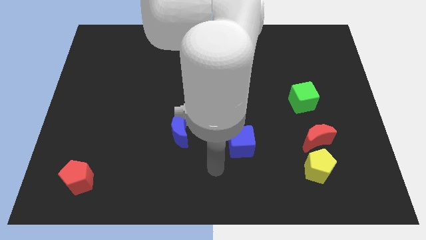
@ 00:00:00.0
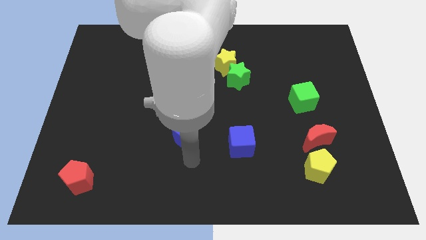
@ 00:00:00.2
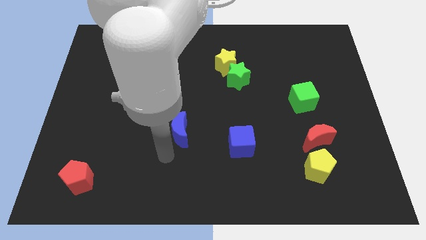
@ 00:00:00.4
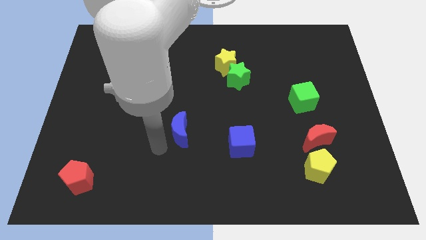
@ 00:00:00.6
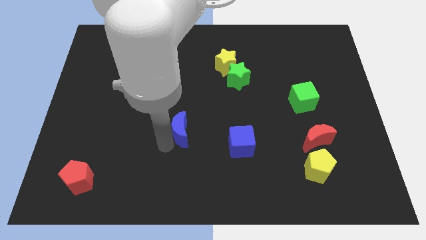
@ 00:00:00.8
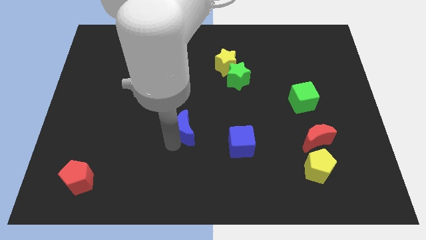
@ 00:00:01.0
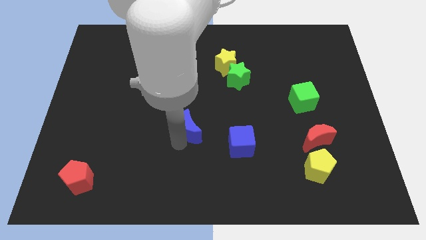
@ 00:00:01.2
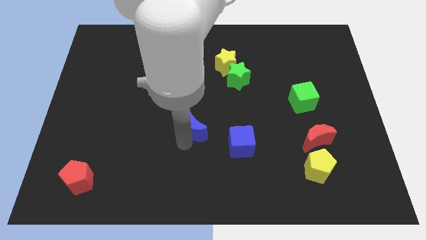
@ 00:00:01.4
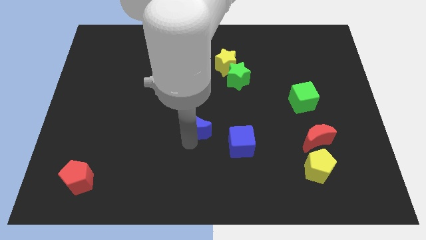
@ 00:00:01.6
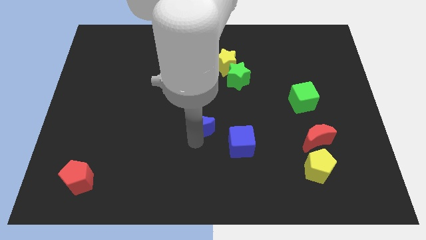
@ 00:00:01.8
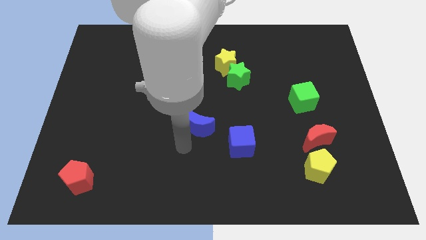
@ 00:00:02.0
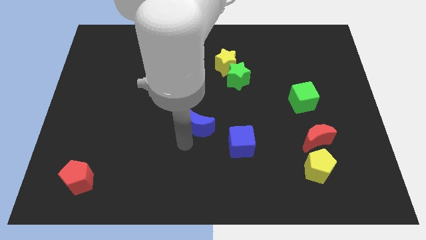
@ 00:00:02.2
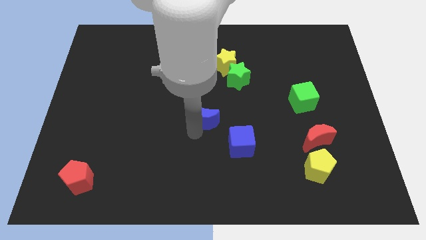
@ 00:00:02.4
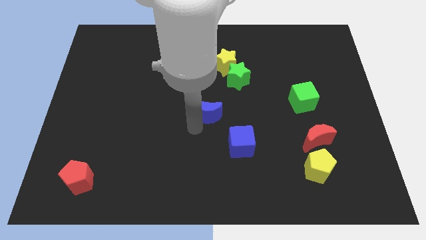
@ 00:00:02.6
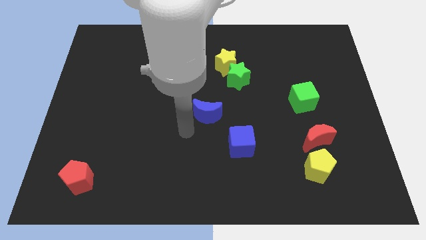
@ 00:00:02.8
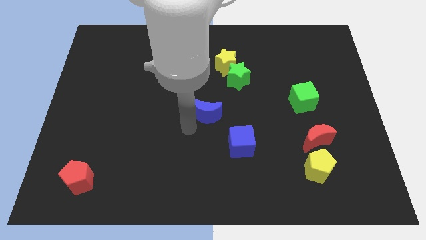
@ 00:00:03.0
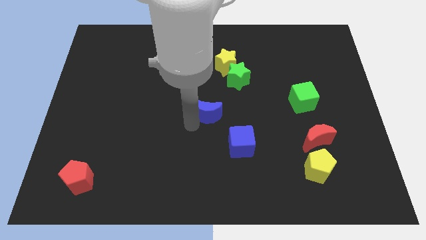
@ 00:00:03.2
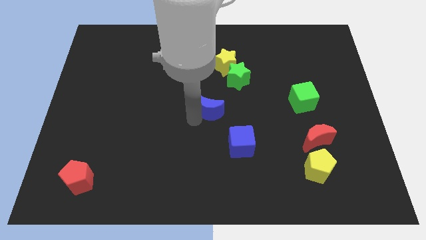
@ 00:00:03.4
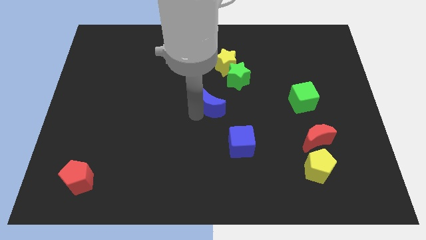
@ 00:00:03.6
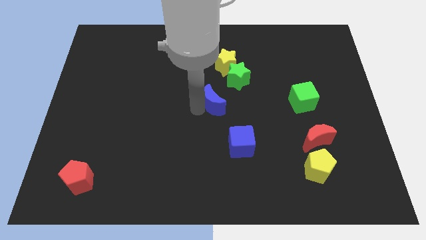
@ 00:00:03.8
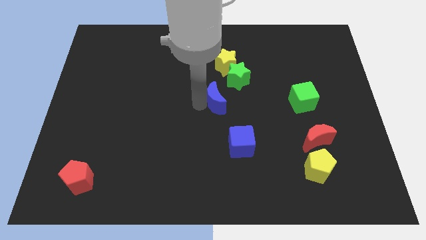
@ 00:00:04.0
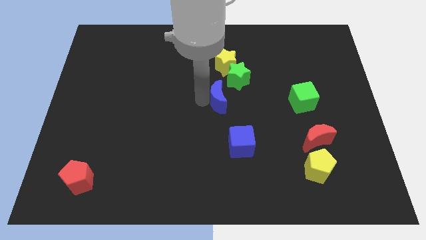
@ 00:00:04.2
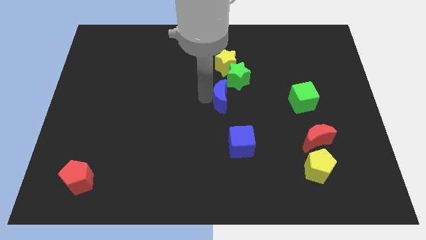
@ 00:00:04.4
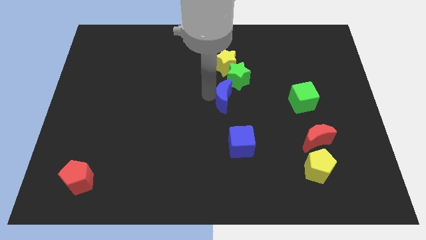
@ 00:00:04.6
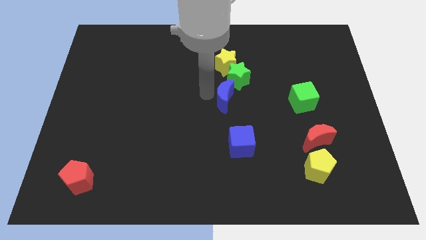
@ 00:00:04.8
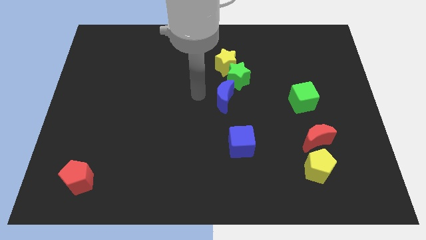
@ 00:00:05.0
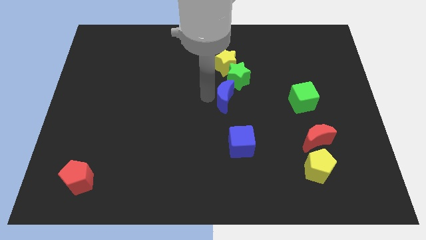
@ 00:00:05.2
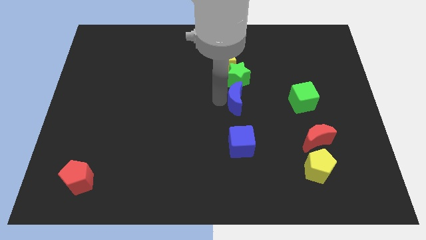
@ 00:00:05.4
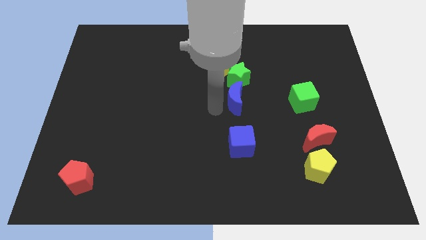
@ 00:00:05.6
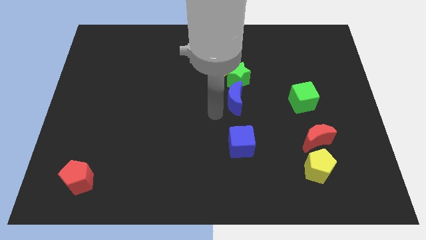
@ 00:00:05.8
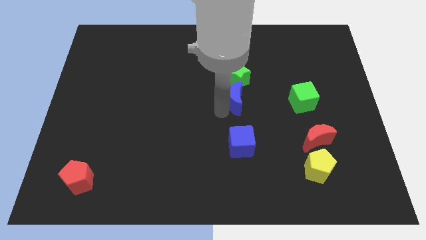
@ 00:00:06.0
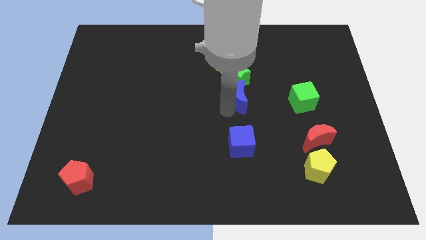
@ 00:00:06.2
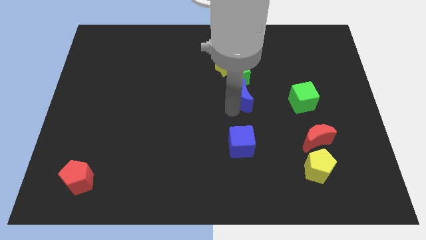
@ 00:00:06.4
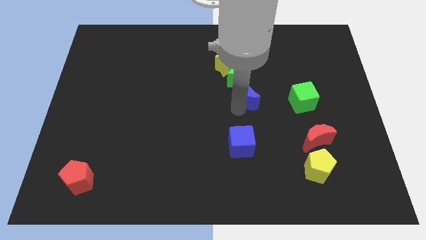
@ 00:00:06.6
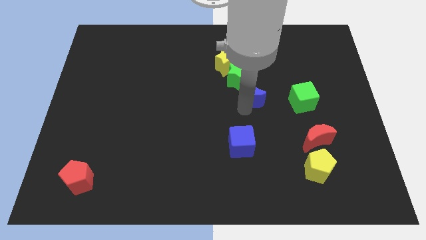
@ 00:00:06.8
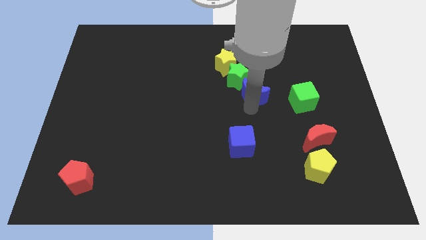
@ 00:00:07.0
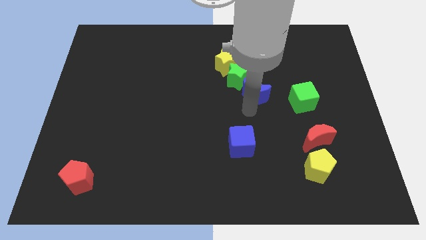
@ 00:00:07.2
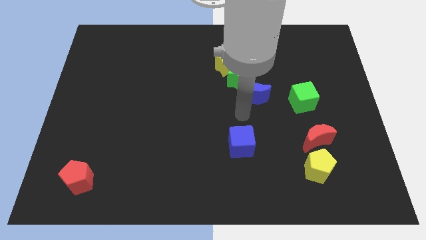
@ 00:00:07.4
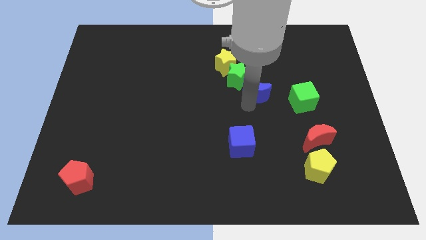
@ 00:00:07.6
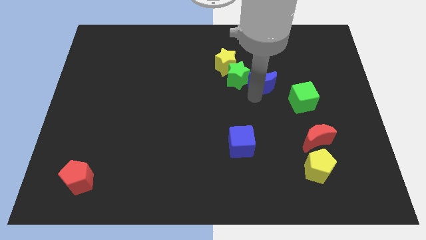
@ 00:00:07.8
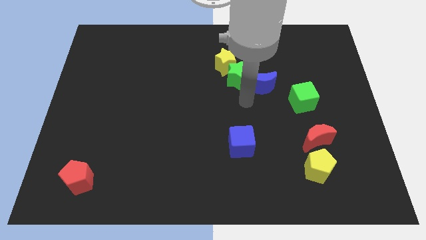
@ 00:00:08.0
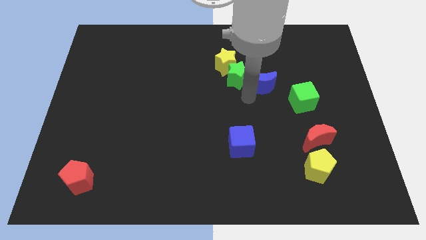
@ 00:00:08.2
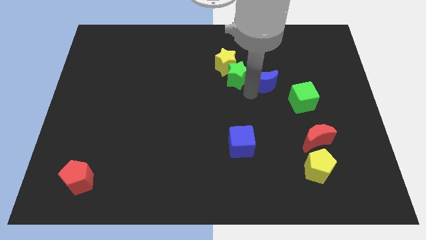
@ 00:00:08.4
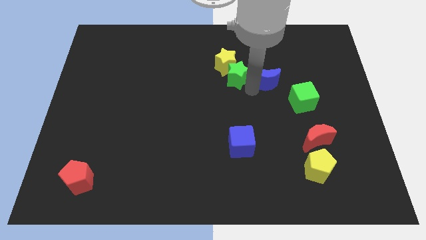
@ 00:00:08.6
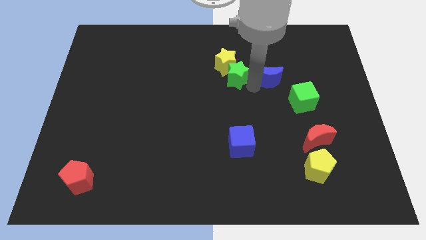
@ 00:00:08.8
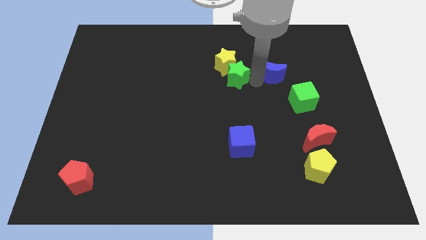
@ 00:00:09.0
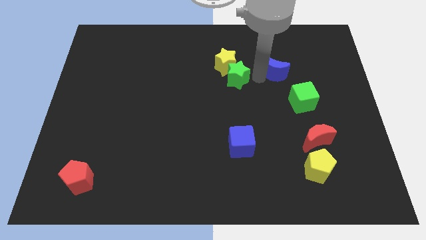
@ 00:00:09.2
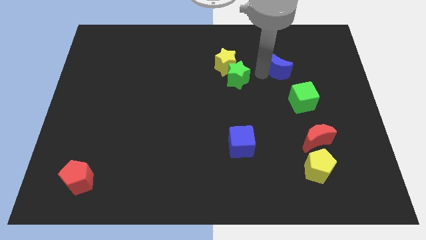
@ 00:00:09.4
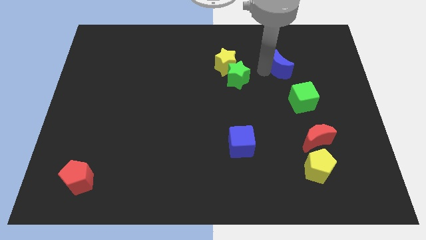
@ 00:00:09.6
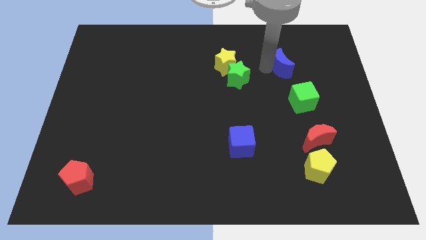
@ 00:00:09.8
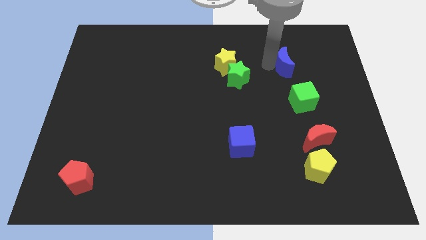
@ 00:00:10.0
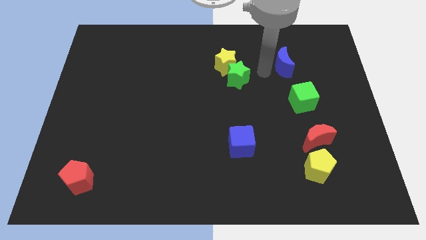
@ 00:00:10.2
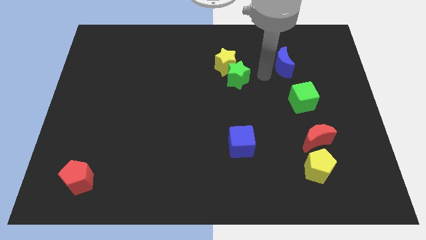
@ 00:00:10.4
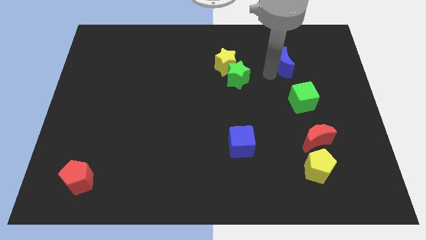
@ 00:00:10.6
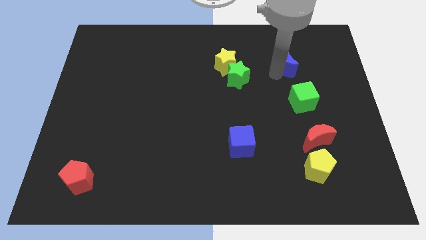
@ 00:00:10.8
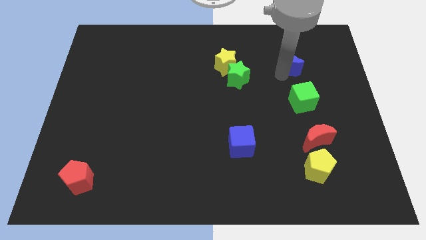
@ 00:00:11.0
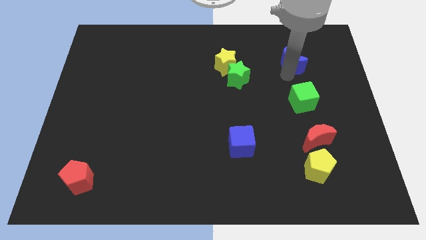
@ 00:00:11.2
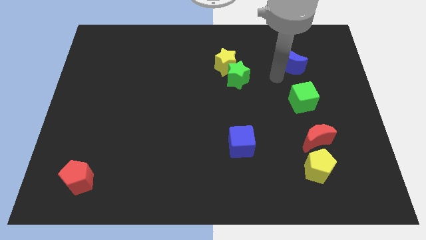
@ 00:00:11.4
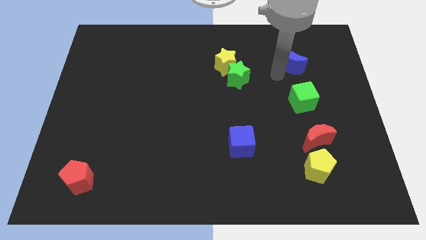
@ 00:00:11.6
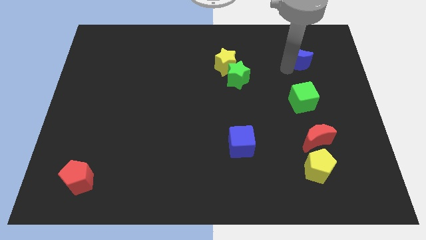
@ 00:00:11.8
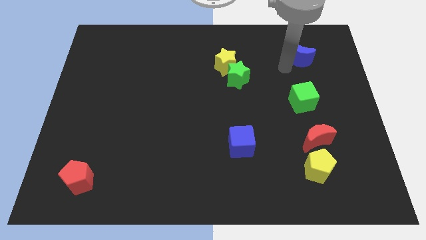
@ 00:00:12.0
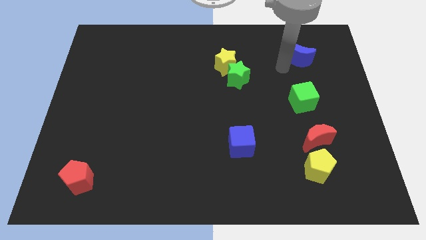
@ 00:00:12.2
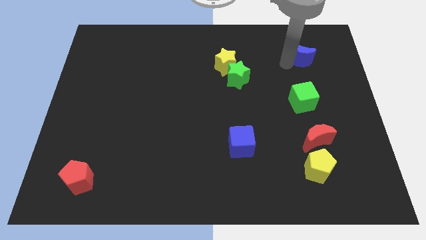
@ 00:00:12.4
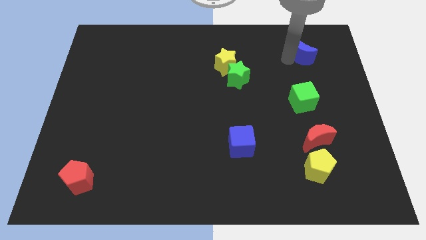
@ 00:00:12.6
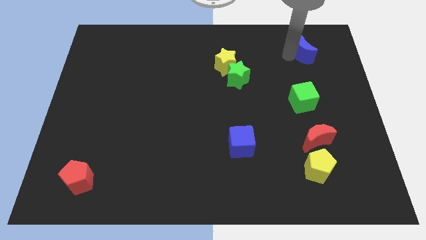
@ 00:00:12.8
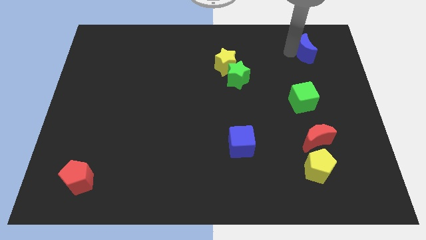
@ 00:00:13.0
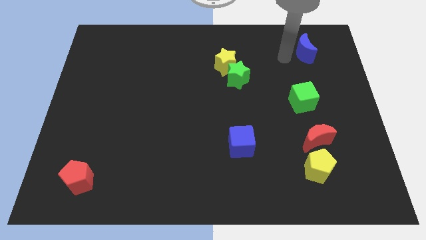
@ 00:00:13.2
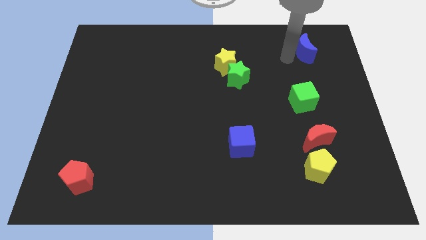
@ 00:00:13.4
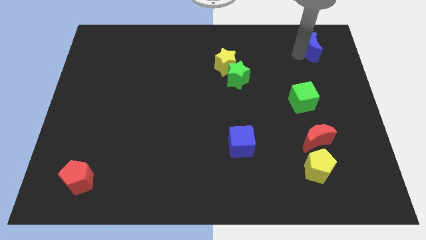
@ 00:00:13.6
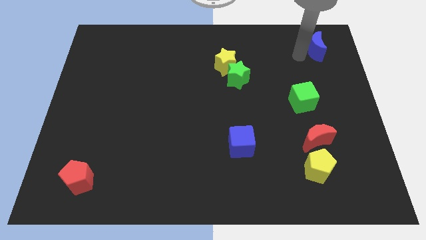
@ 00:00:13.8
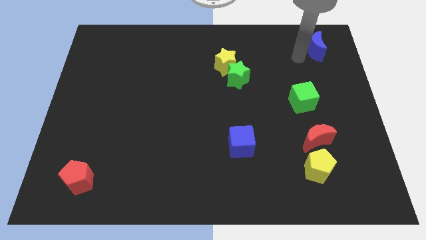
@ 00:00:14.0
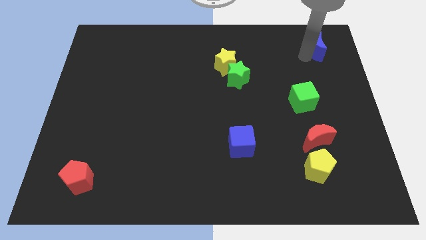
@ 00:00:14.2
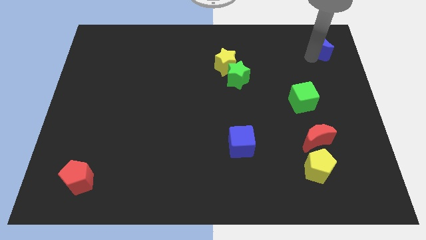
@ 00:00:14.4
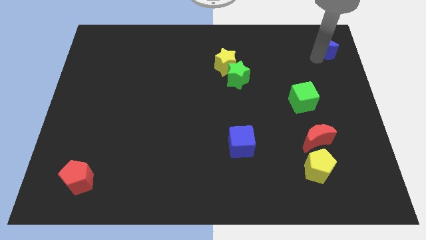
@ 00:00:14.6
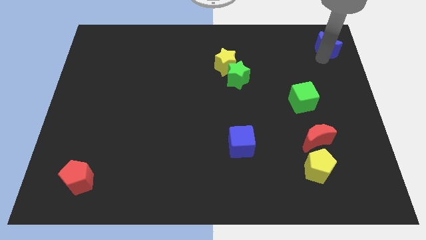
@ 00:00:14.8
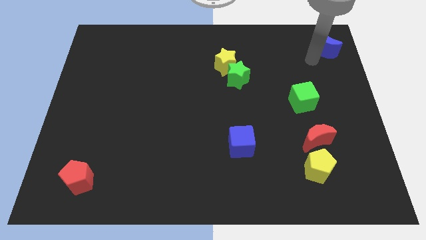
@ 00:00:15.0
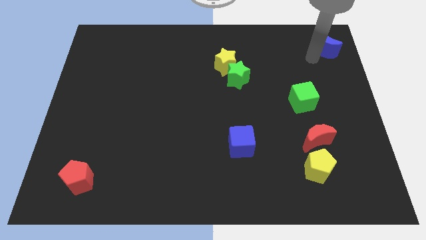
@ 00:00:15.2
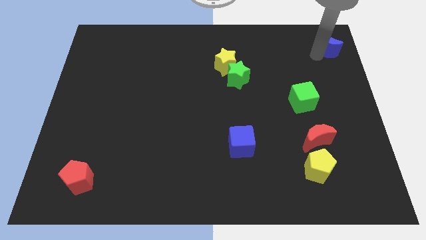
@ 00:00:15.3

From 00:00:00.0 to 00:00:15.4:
move the blue moon to the top right corner
